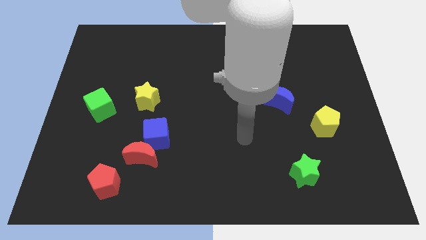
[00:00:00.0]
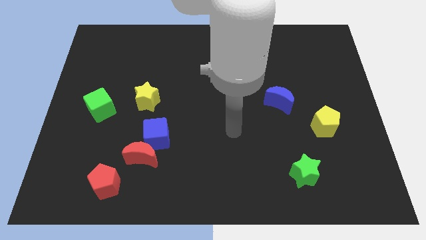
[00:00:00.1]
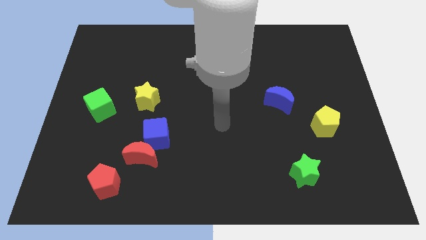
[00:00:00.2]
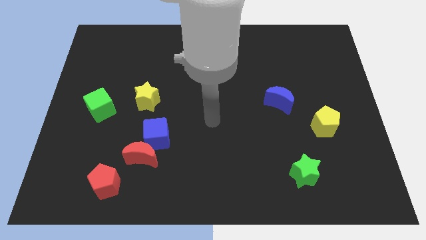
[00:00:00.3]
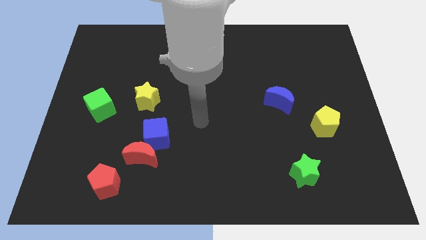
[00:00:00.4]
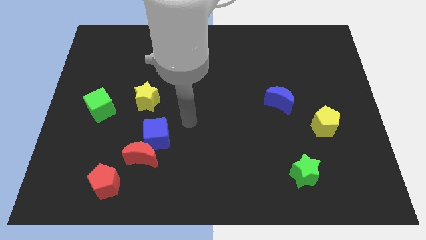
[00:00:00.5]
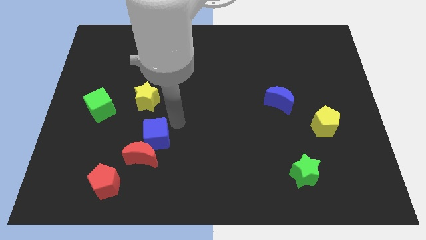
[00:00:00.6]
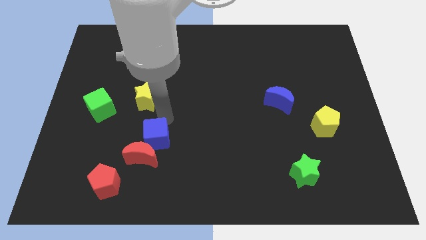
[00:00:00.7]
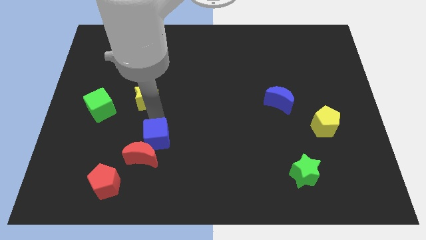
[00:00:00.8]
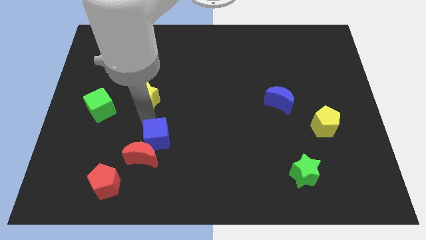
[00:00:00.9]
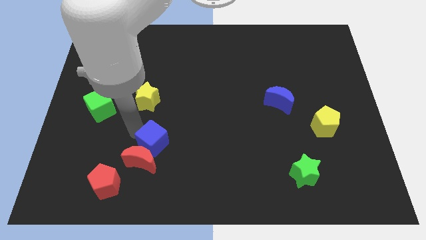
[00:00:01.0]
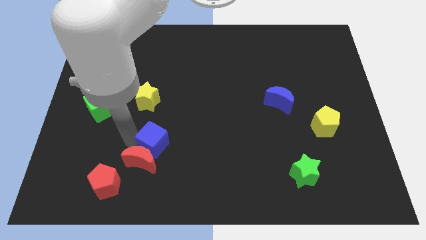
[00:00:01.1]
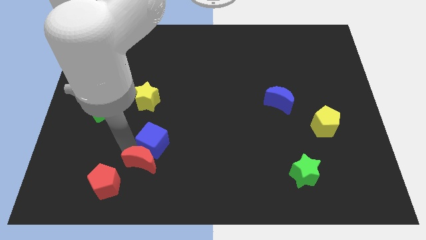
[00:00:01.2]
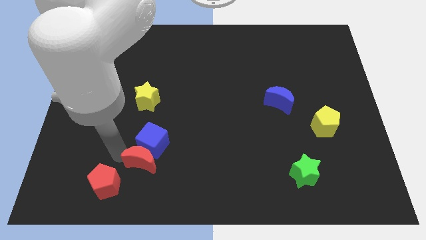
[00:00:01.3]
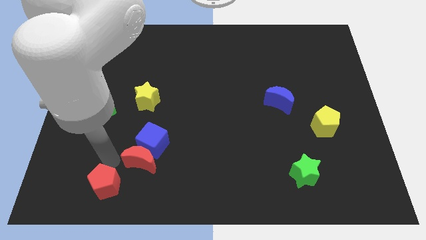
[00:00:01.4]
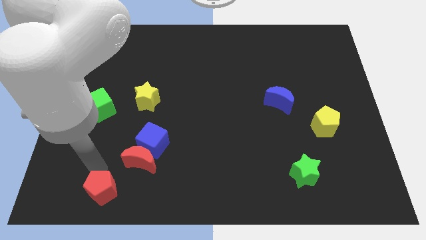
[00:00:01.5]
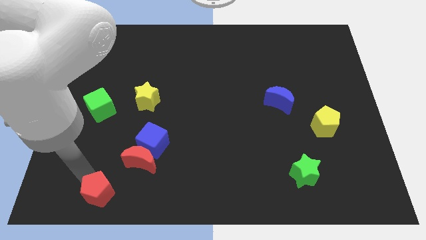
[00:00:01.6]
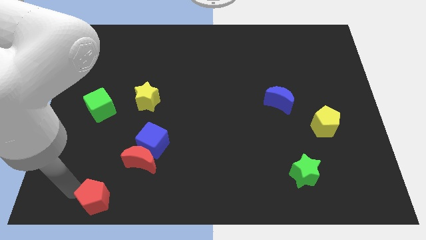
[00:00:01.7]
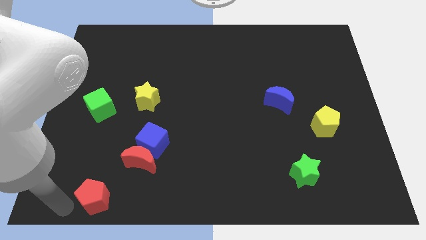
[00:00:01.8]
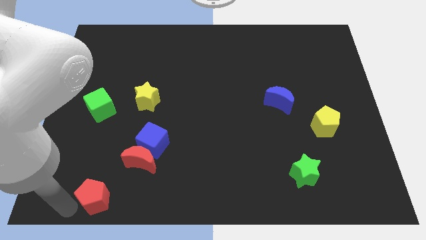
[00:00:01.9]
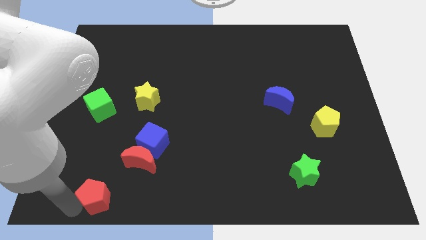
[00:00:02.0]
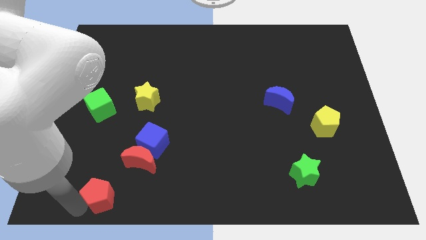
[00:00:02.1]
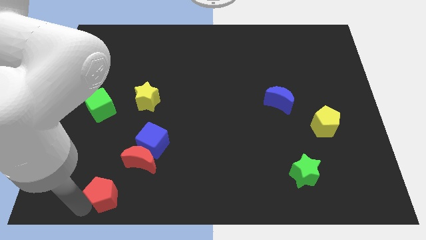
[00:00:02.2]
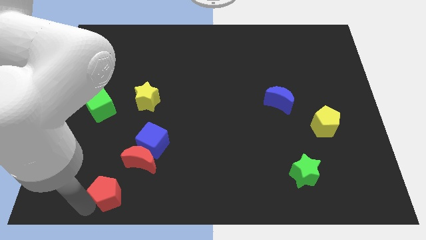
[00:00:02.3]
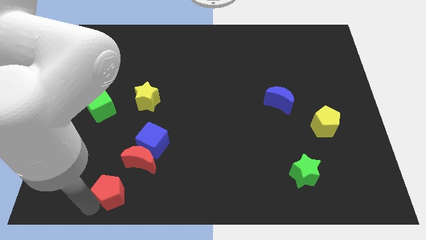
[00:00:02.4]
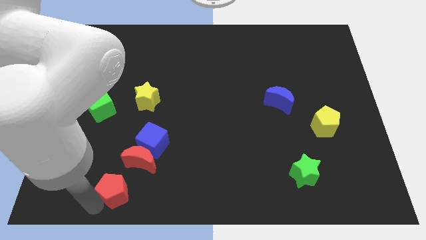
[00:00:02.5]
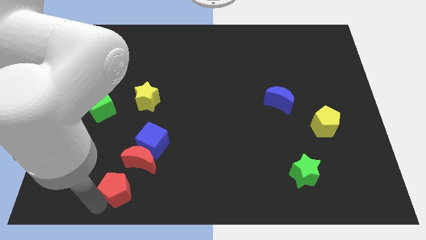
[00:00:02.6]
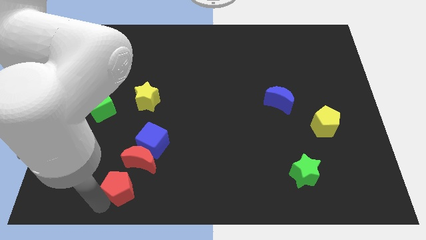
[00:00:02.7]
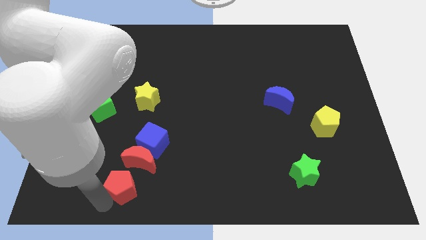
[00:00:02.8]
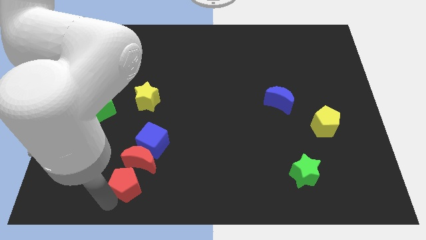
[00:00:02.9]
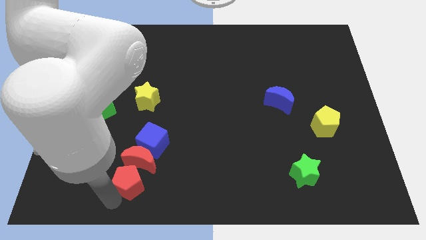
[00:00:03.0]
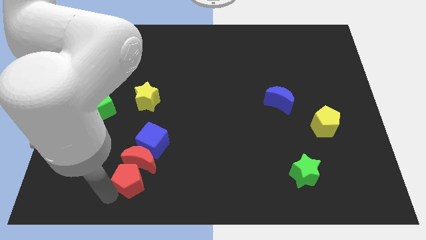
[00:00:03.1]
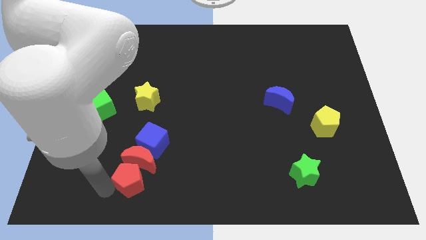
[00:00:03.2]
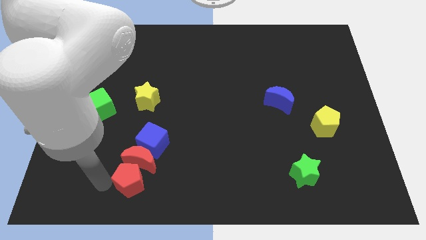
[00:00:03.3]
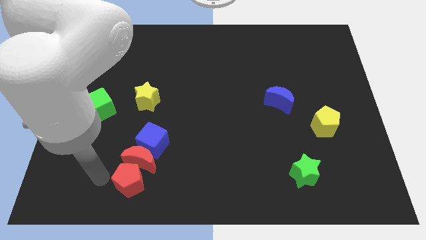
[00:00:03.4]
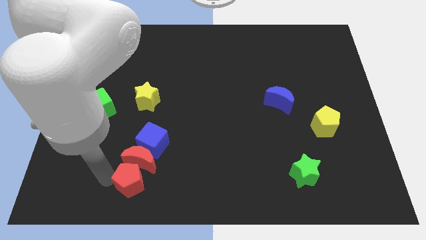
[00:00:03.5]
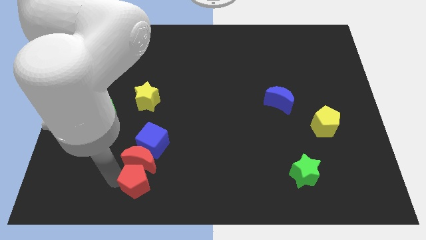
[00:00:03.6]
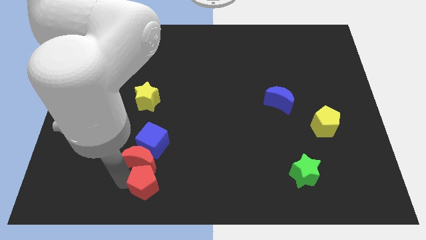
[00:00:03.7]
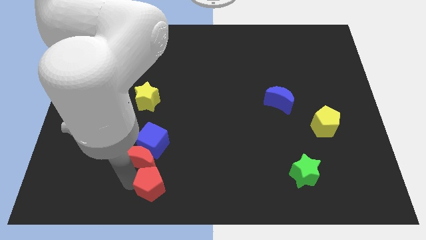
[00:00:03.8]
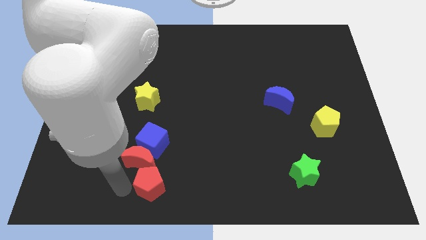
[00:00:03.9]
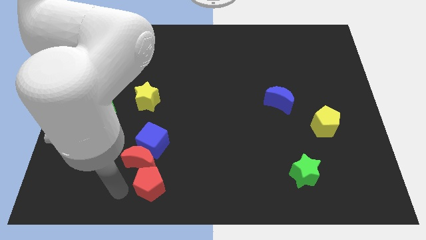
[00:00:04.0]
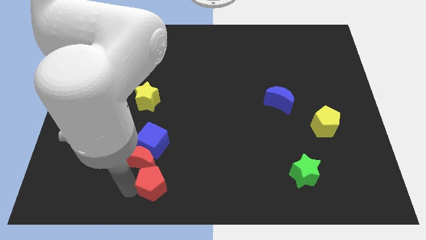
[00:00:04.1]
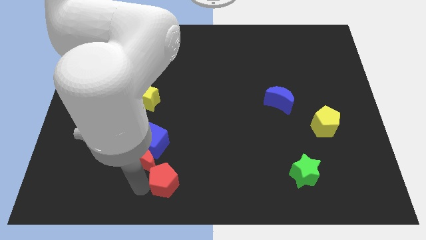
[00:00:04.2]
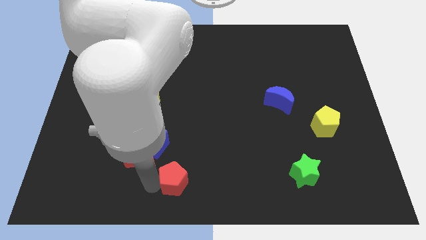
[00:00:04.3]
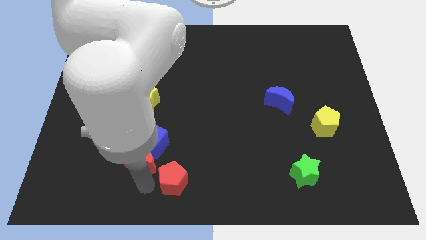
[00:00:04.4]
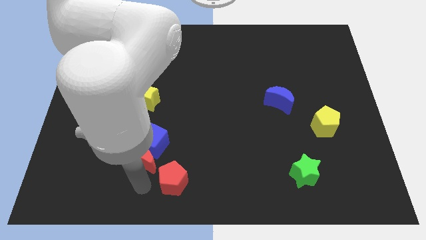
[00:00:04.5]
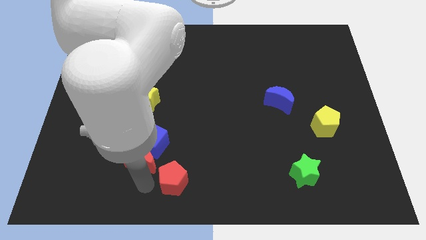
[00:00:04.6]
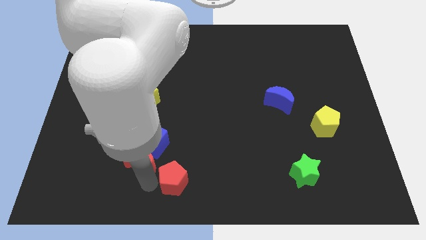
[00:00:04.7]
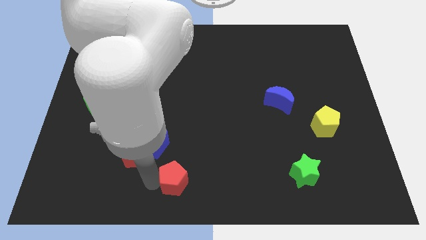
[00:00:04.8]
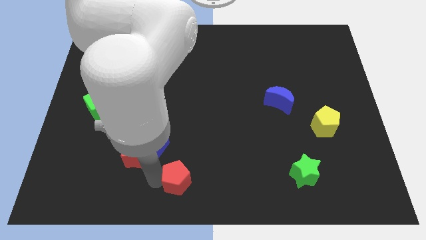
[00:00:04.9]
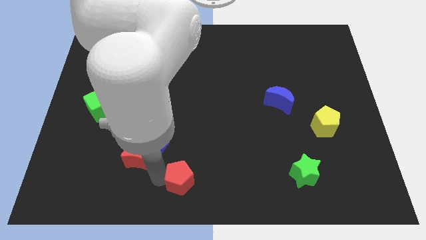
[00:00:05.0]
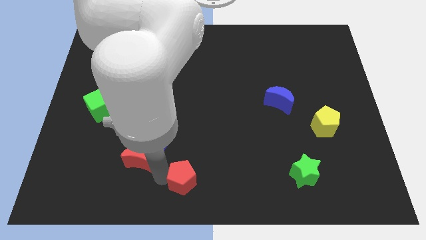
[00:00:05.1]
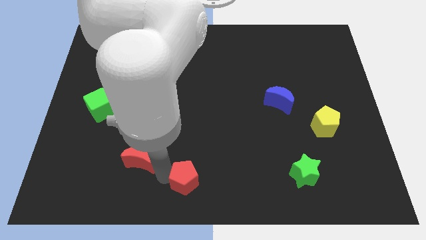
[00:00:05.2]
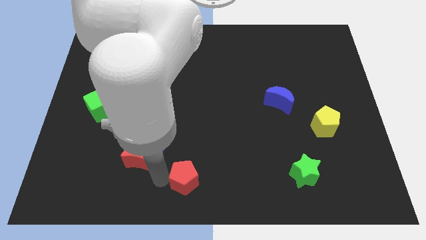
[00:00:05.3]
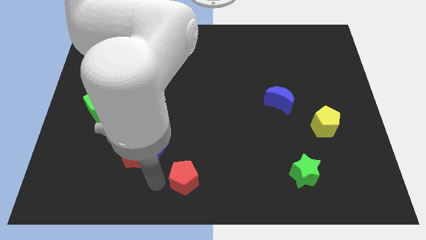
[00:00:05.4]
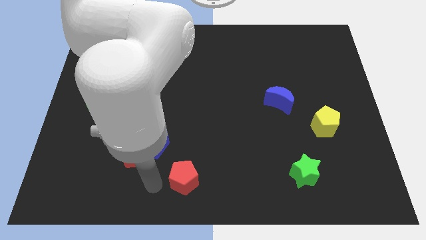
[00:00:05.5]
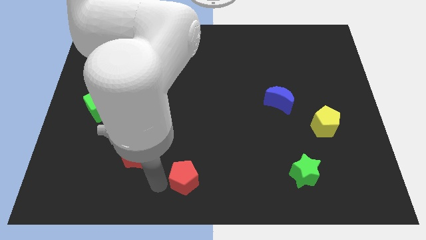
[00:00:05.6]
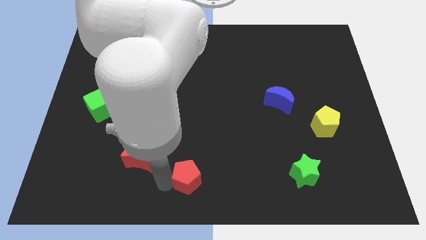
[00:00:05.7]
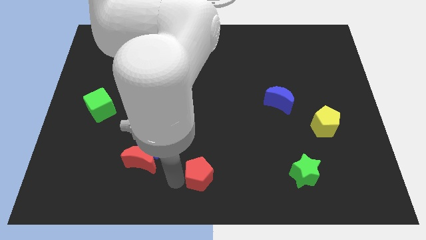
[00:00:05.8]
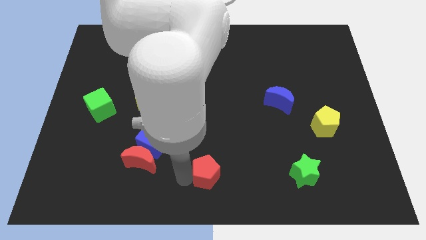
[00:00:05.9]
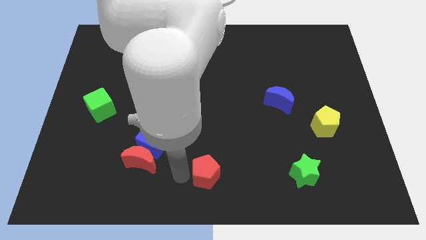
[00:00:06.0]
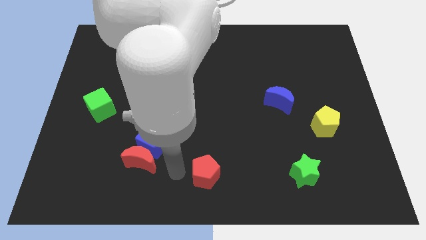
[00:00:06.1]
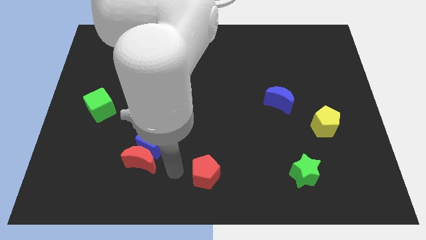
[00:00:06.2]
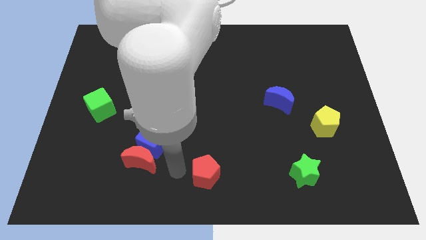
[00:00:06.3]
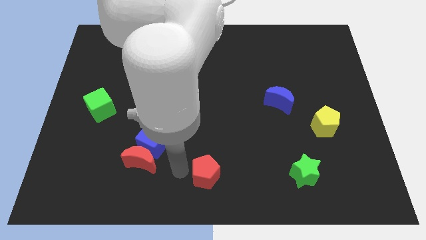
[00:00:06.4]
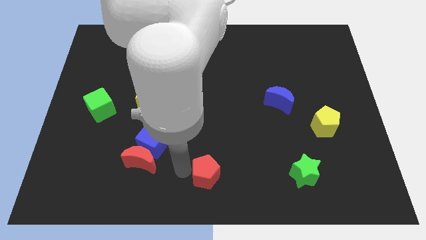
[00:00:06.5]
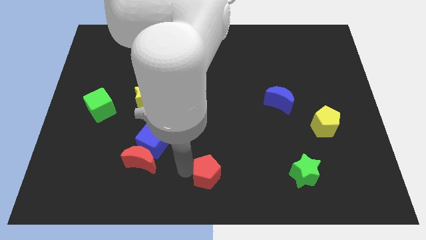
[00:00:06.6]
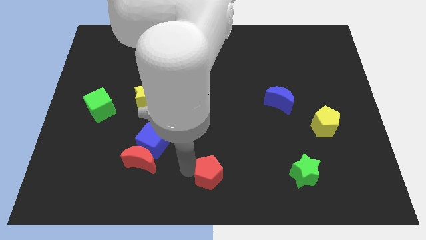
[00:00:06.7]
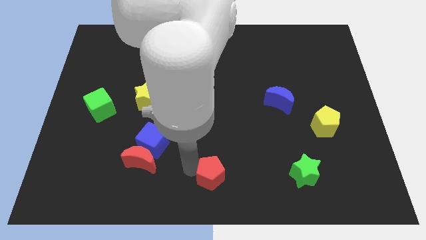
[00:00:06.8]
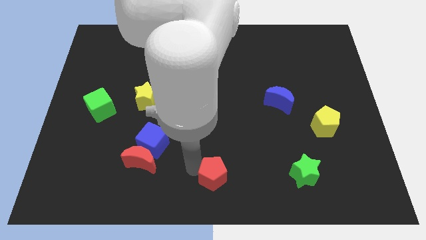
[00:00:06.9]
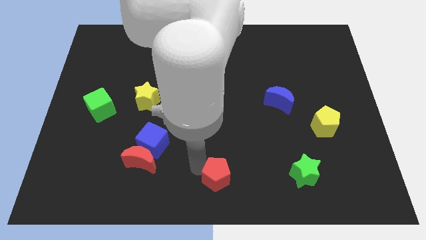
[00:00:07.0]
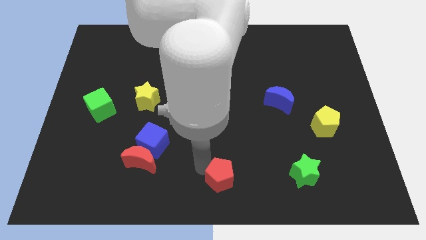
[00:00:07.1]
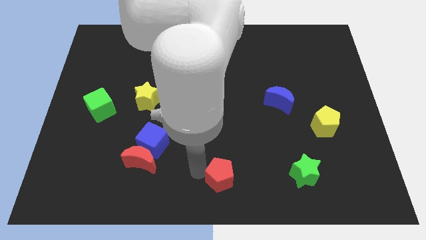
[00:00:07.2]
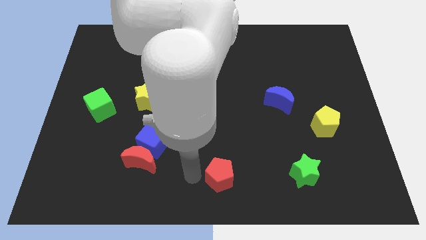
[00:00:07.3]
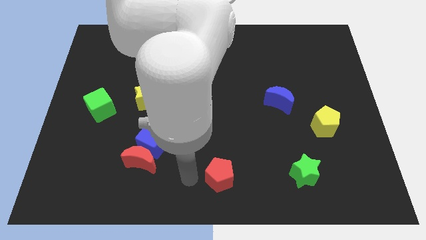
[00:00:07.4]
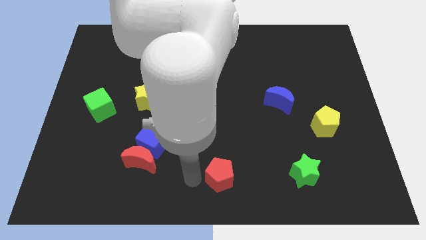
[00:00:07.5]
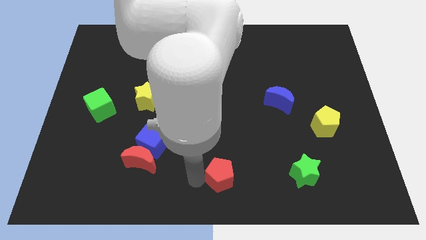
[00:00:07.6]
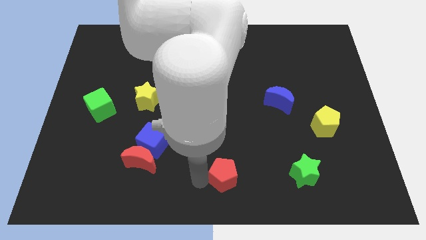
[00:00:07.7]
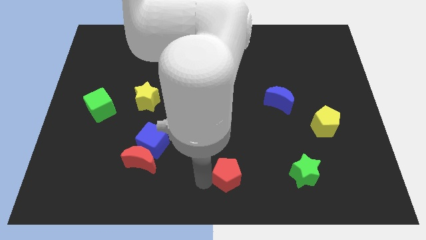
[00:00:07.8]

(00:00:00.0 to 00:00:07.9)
slide the red pentagon left of the green star
